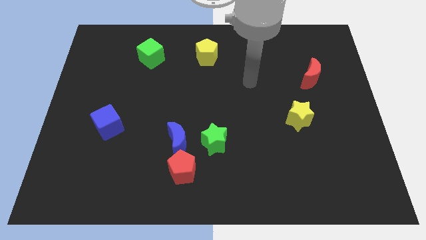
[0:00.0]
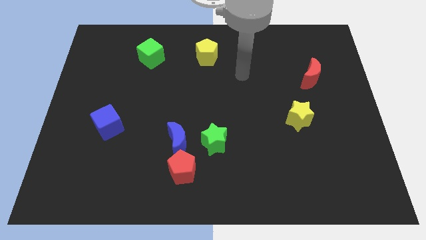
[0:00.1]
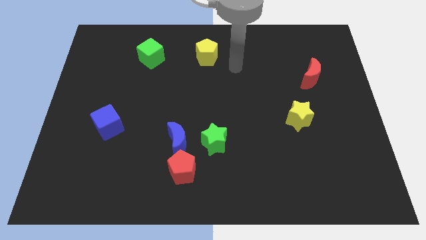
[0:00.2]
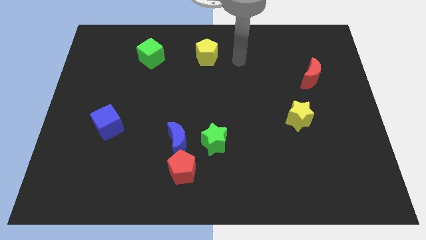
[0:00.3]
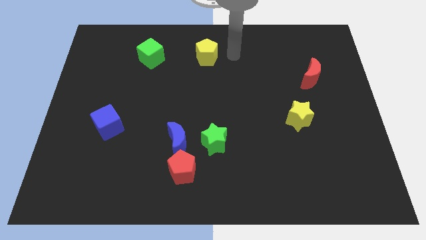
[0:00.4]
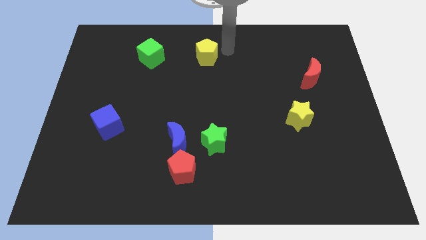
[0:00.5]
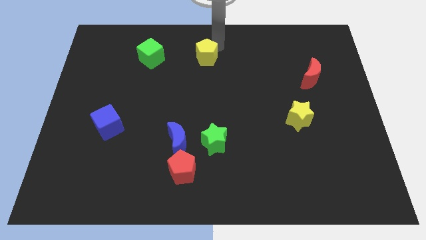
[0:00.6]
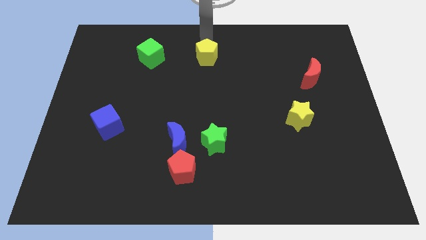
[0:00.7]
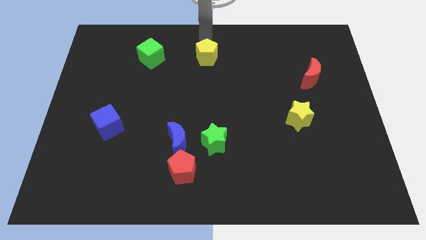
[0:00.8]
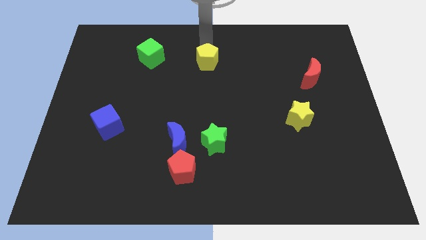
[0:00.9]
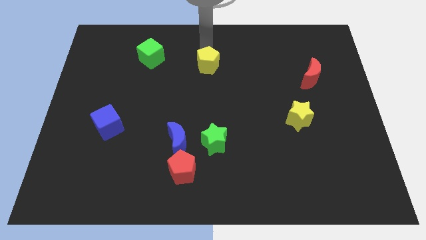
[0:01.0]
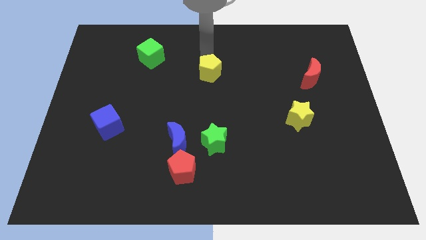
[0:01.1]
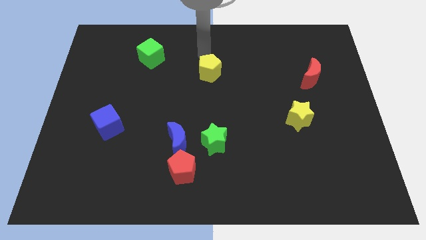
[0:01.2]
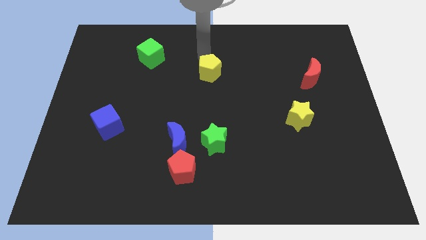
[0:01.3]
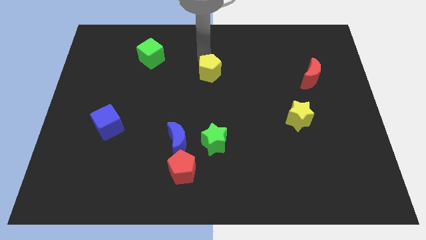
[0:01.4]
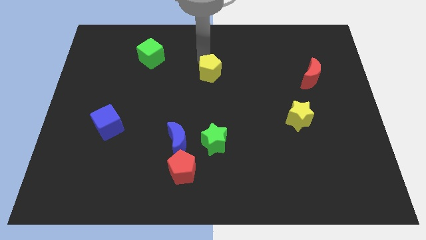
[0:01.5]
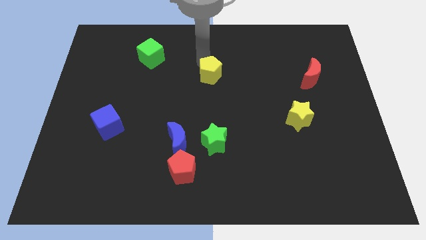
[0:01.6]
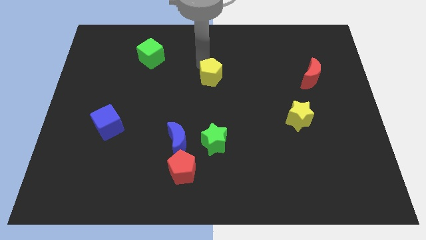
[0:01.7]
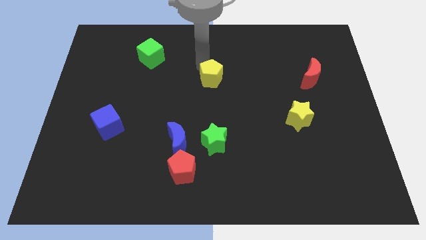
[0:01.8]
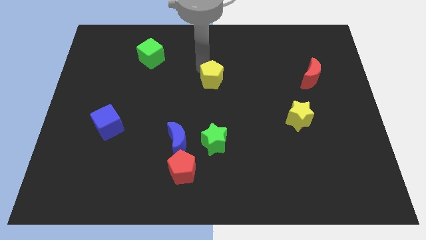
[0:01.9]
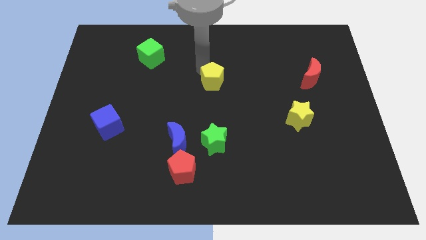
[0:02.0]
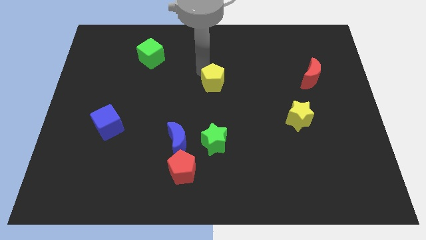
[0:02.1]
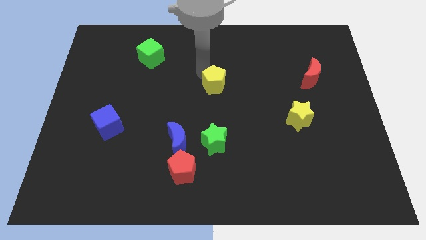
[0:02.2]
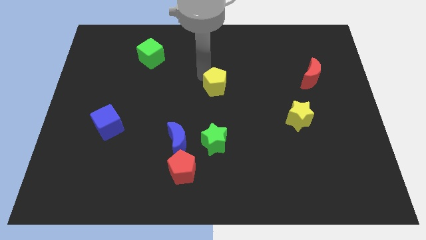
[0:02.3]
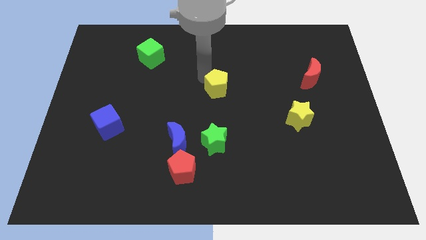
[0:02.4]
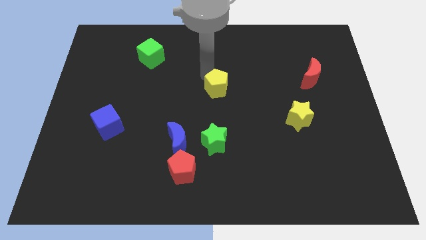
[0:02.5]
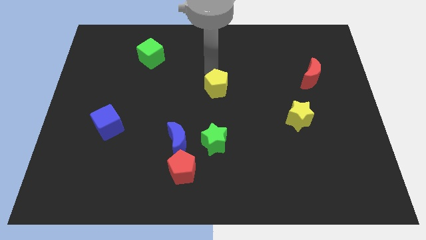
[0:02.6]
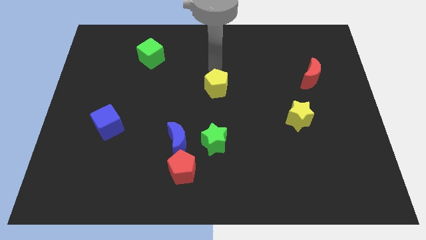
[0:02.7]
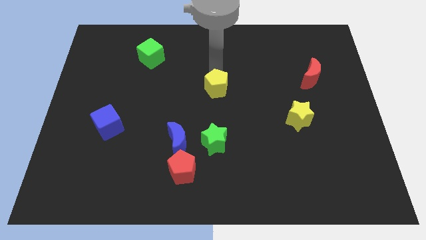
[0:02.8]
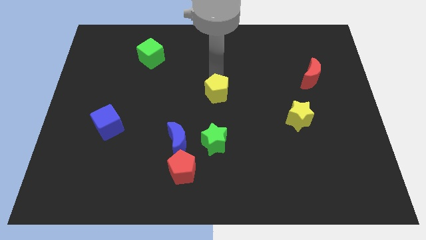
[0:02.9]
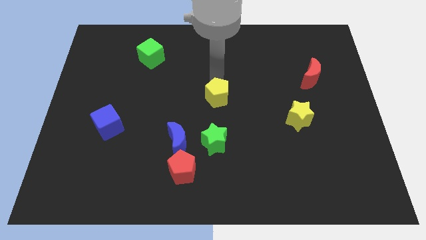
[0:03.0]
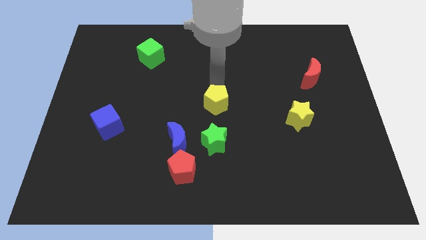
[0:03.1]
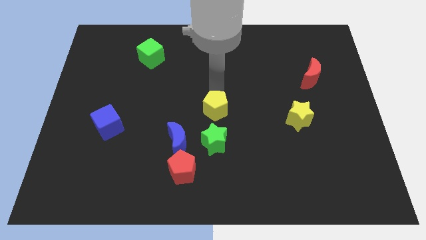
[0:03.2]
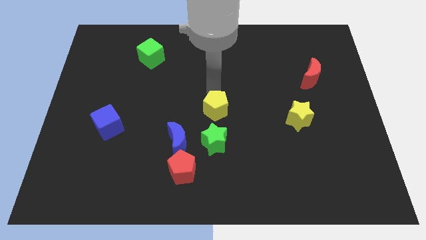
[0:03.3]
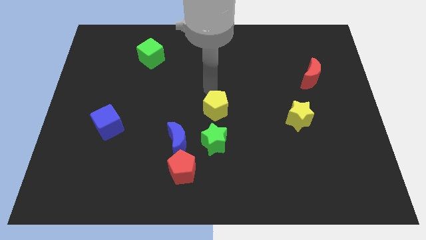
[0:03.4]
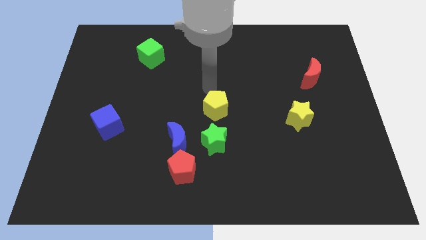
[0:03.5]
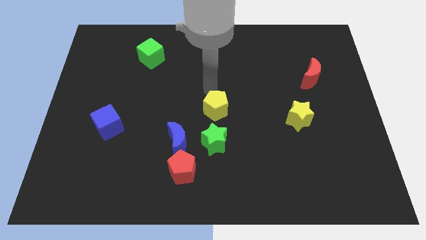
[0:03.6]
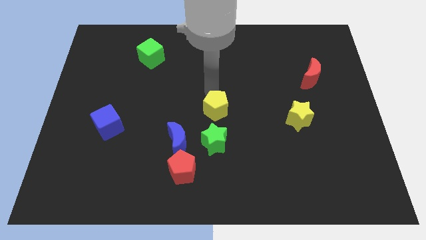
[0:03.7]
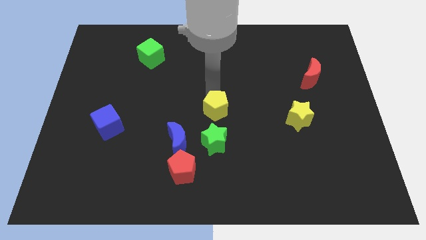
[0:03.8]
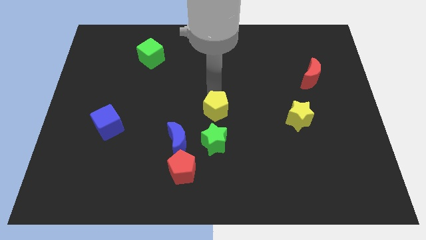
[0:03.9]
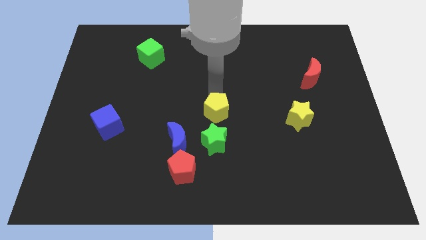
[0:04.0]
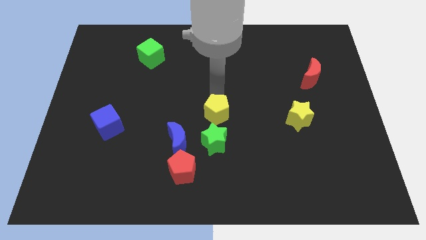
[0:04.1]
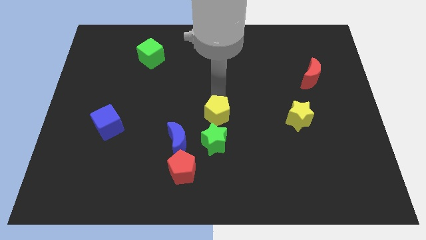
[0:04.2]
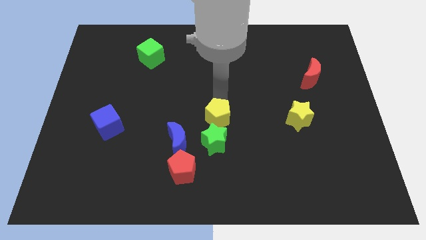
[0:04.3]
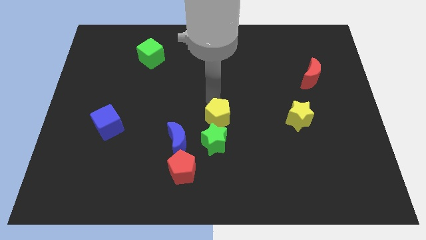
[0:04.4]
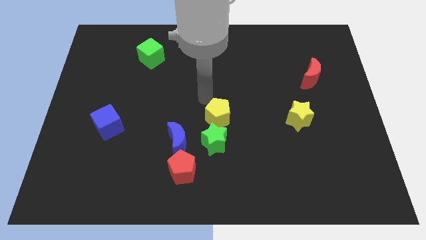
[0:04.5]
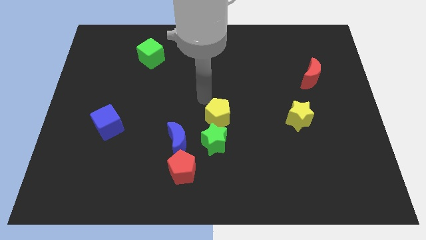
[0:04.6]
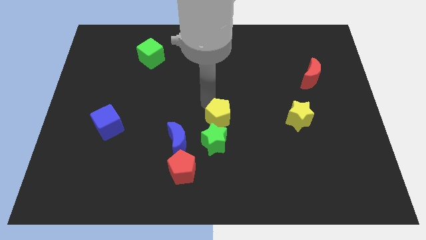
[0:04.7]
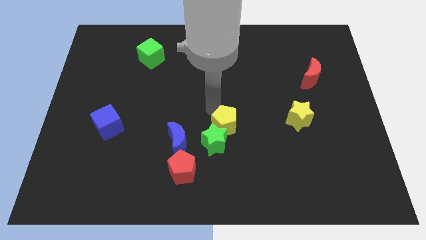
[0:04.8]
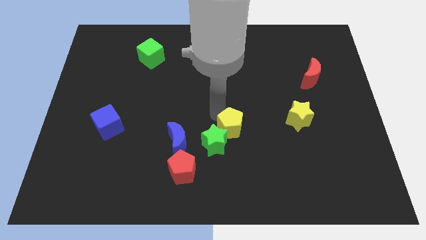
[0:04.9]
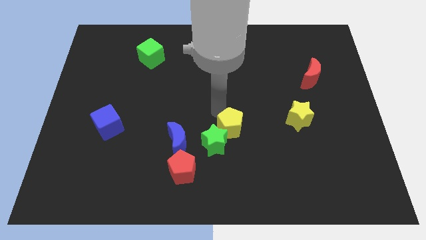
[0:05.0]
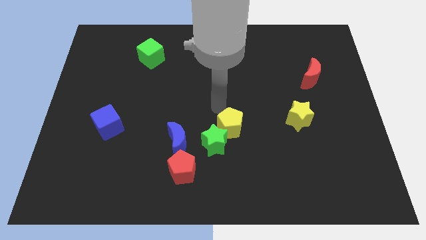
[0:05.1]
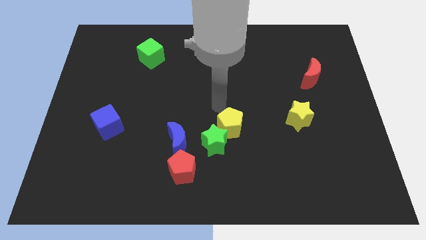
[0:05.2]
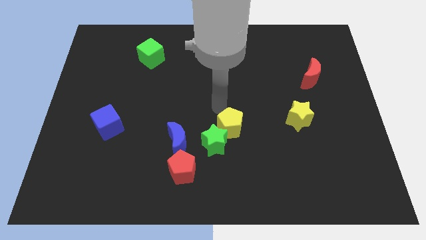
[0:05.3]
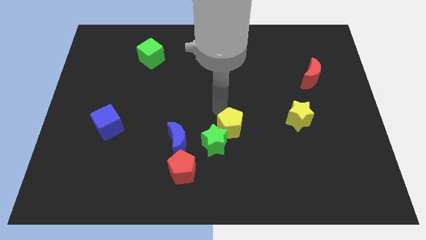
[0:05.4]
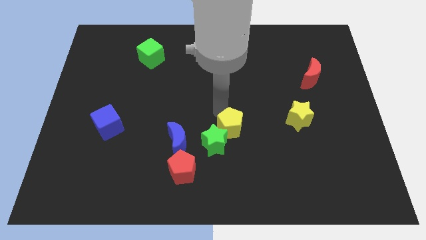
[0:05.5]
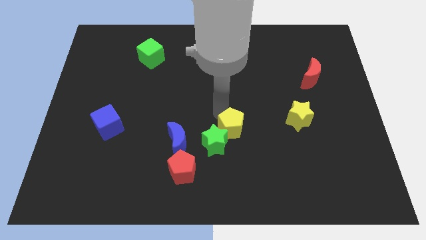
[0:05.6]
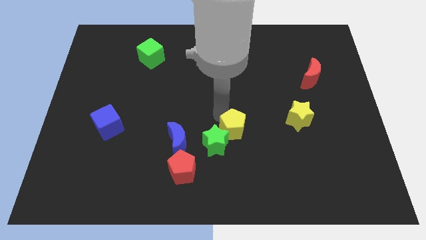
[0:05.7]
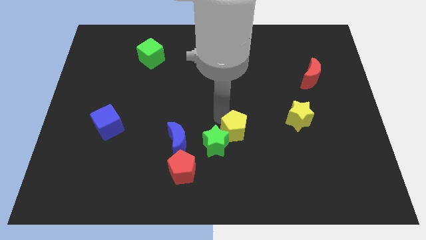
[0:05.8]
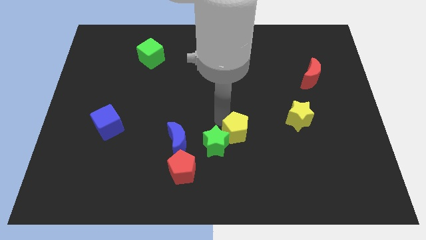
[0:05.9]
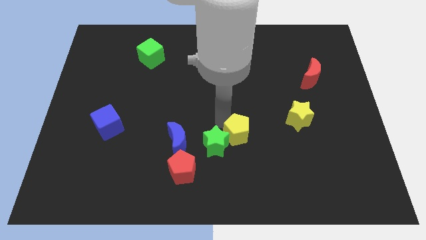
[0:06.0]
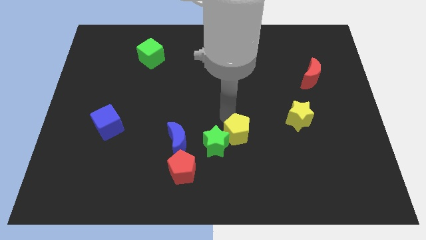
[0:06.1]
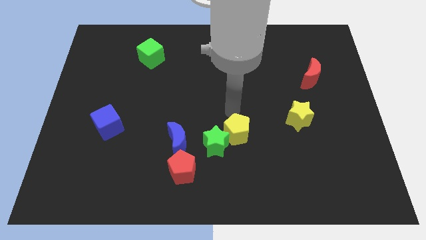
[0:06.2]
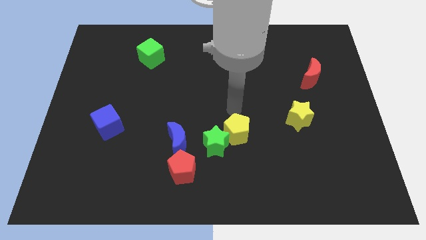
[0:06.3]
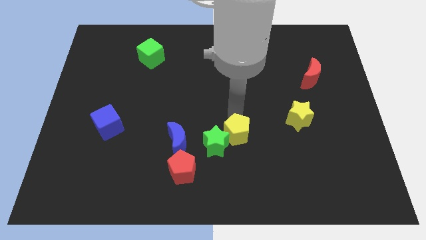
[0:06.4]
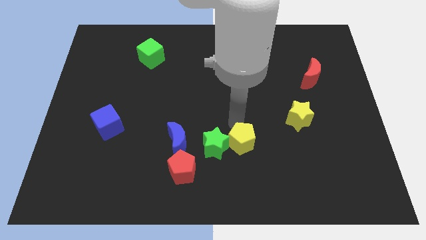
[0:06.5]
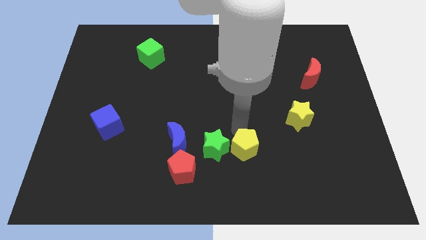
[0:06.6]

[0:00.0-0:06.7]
push the yellow pentagon diagonally down and to the right of the green star
